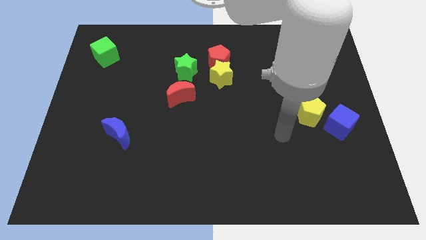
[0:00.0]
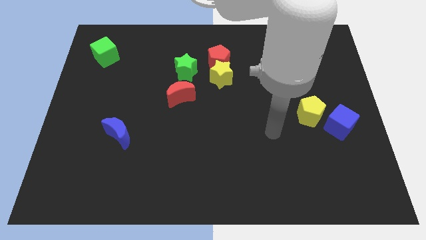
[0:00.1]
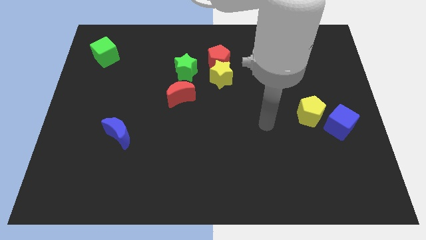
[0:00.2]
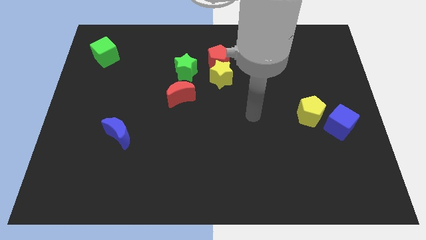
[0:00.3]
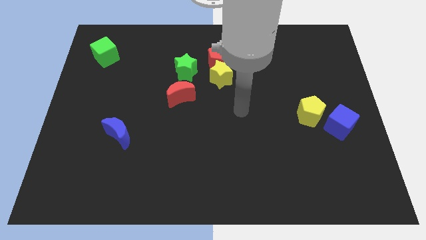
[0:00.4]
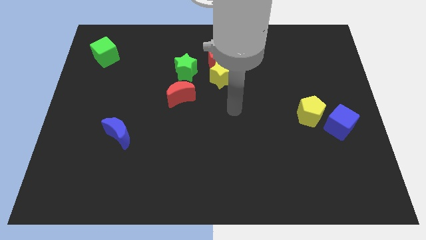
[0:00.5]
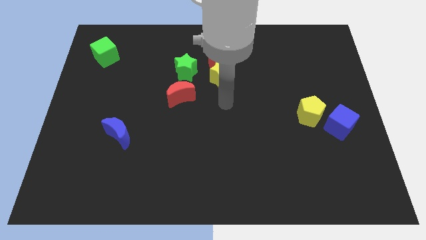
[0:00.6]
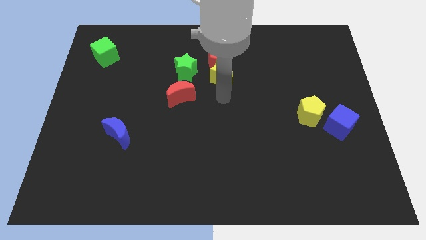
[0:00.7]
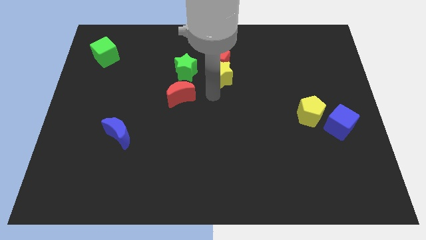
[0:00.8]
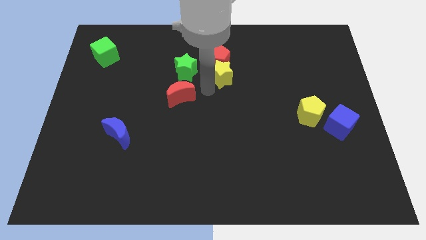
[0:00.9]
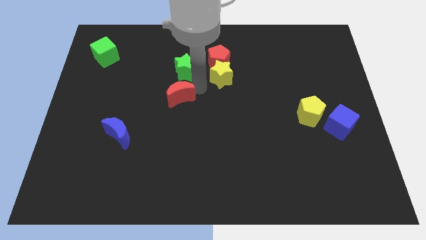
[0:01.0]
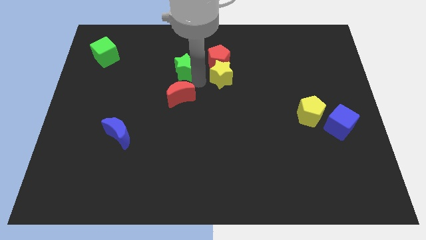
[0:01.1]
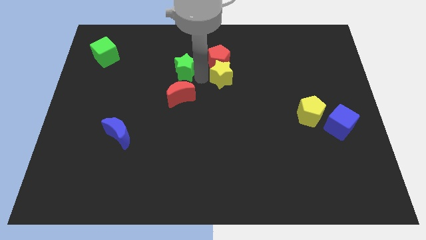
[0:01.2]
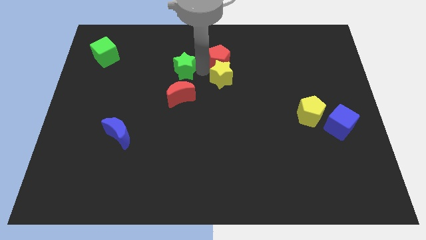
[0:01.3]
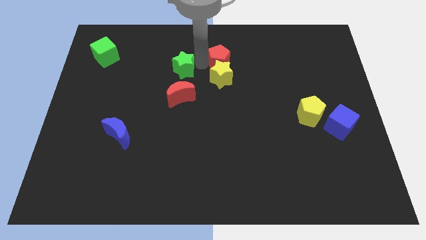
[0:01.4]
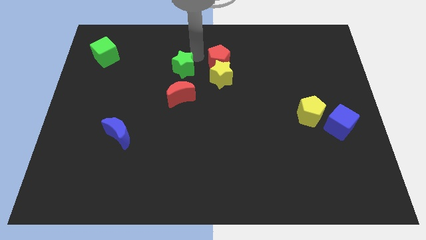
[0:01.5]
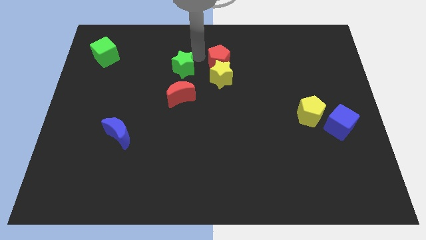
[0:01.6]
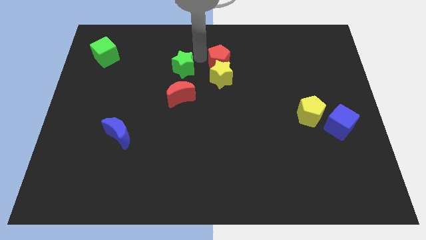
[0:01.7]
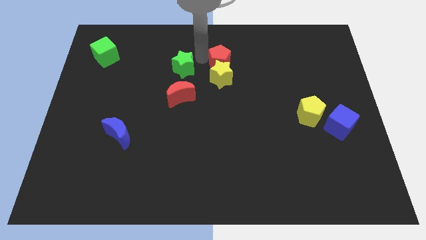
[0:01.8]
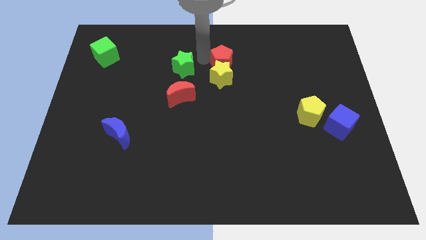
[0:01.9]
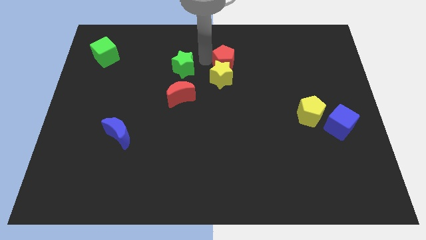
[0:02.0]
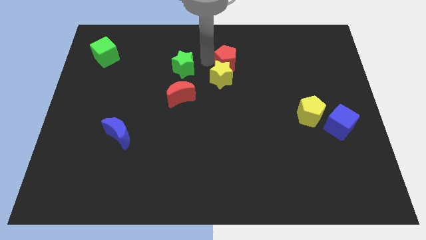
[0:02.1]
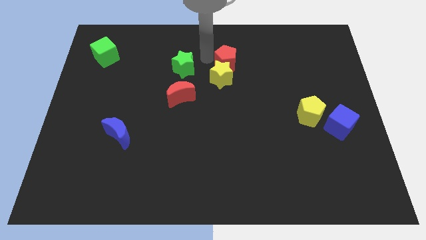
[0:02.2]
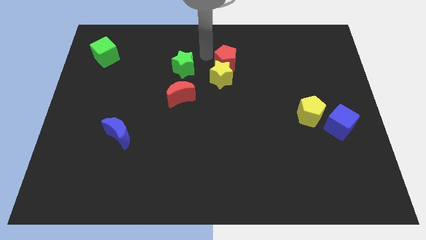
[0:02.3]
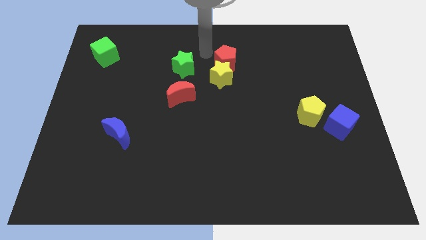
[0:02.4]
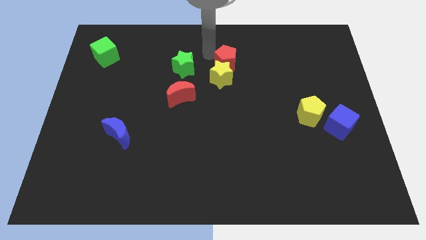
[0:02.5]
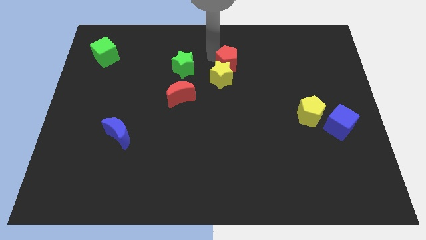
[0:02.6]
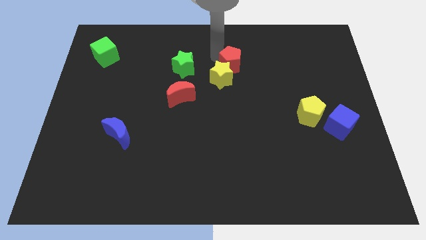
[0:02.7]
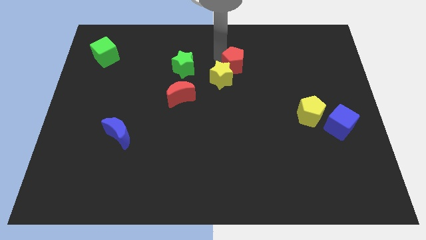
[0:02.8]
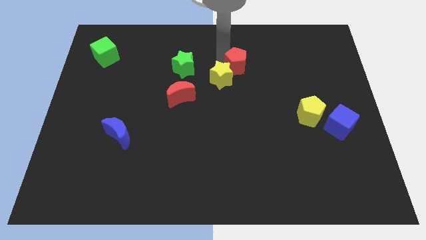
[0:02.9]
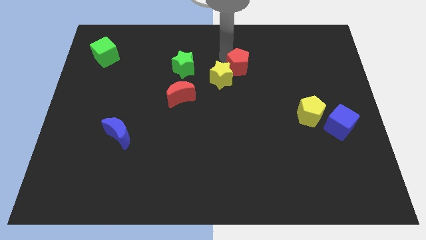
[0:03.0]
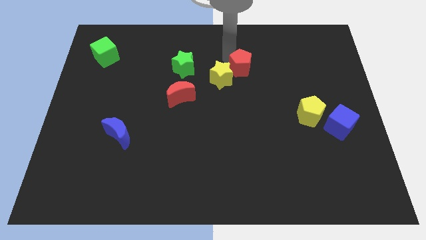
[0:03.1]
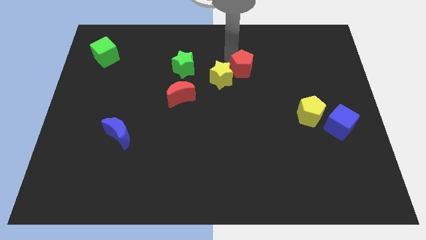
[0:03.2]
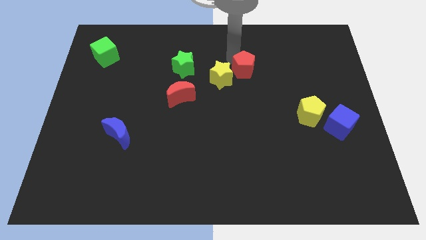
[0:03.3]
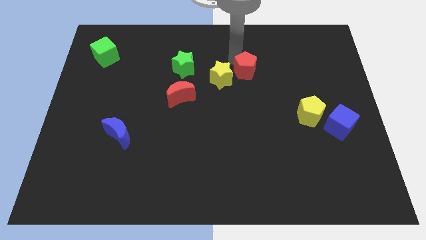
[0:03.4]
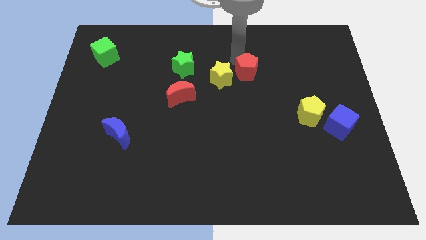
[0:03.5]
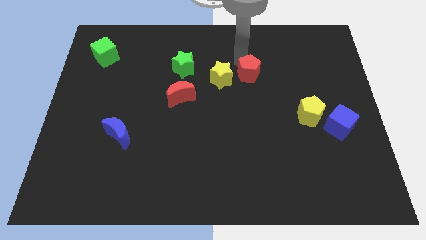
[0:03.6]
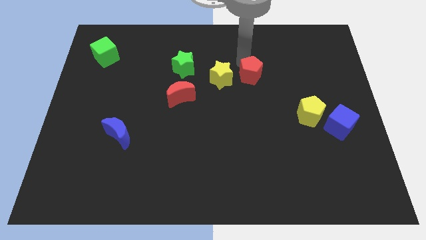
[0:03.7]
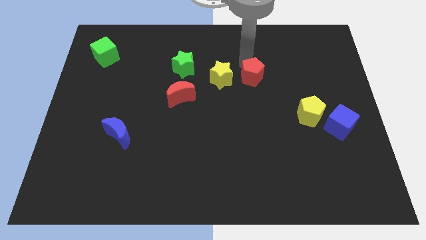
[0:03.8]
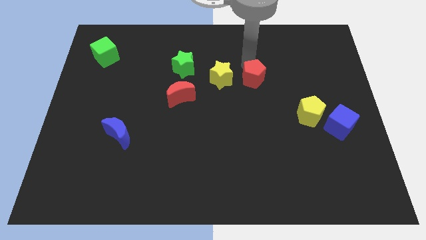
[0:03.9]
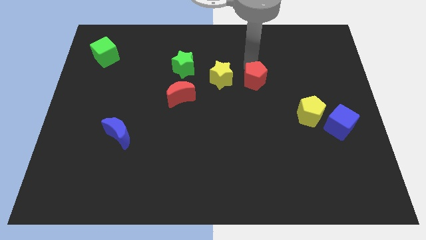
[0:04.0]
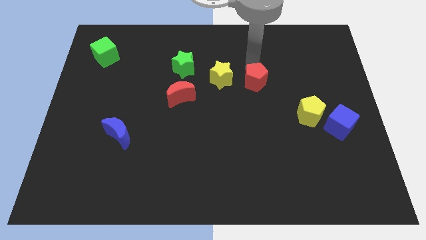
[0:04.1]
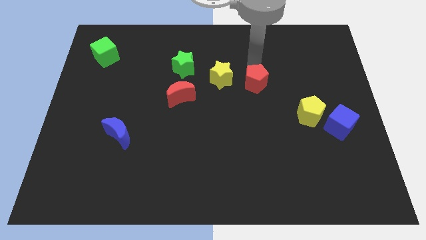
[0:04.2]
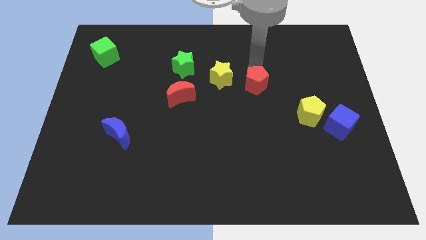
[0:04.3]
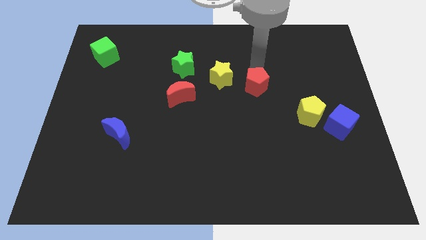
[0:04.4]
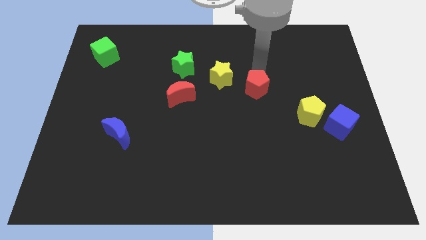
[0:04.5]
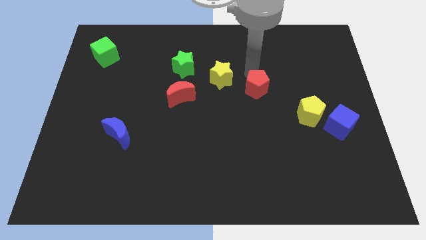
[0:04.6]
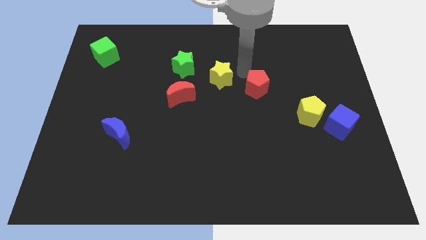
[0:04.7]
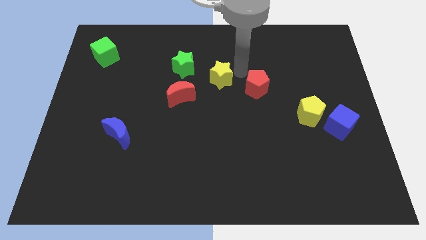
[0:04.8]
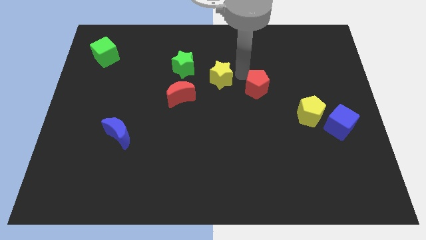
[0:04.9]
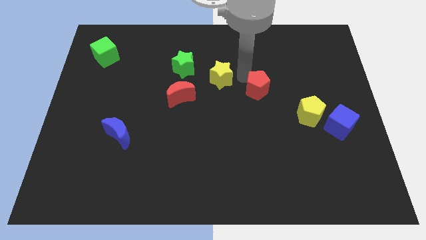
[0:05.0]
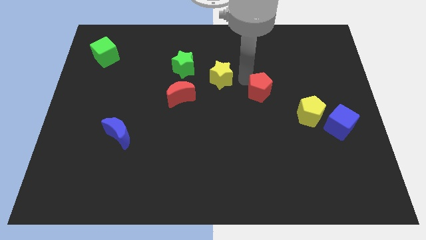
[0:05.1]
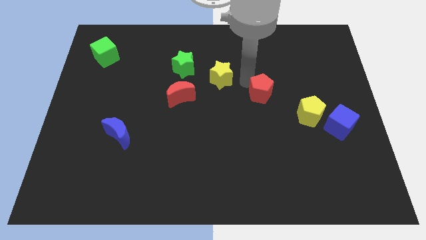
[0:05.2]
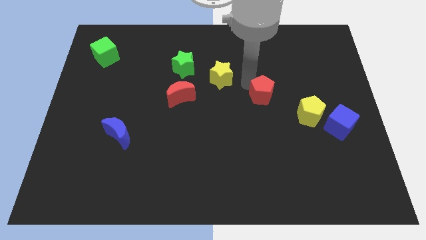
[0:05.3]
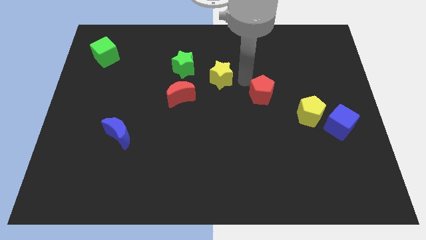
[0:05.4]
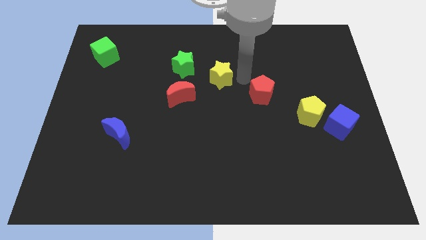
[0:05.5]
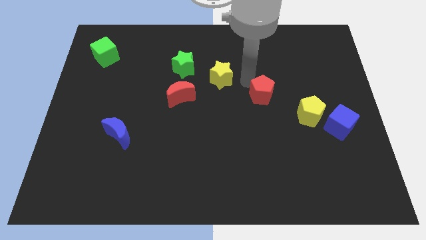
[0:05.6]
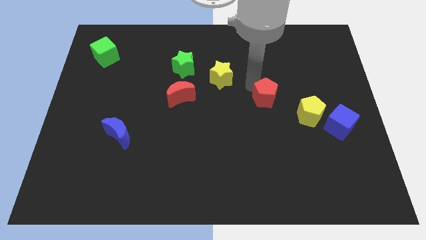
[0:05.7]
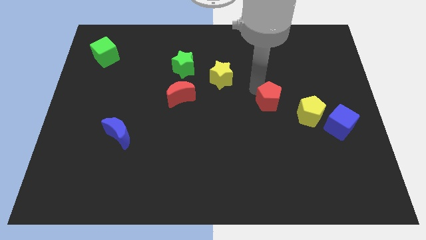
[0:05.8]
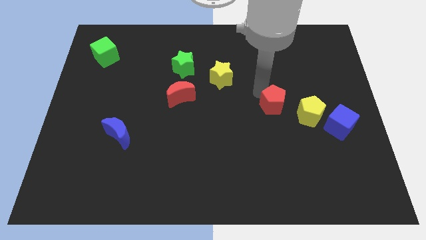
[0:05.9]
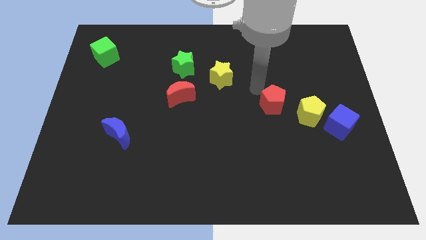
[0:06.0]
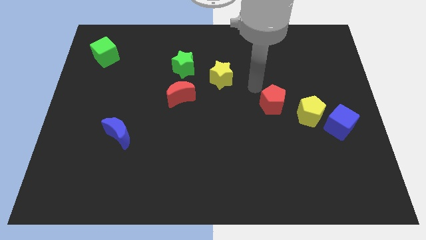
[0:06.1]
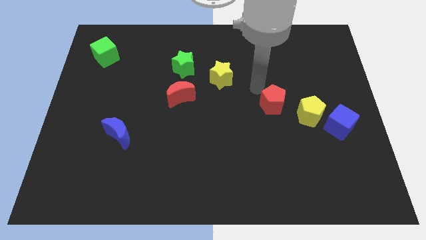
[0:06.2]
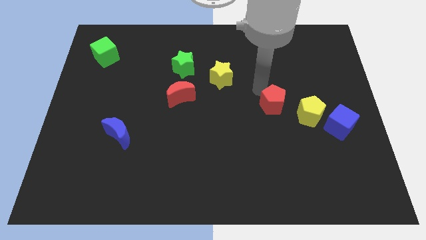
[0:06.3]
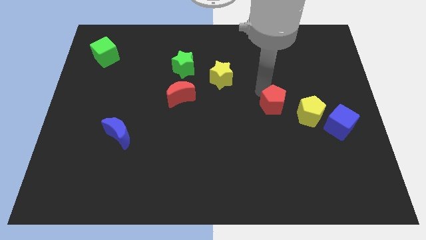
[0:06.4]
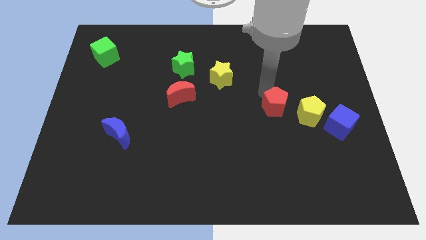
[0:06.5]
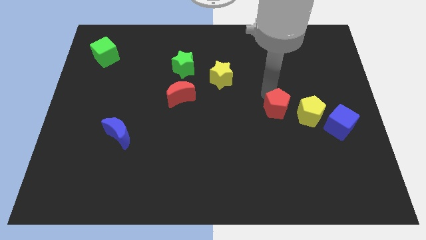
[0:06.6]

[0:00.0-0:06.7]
slide the red pentagon down and right diagonally

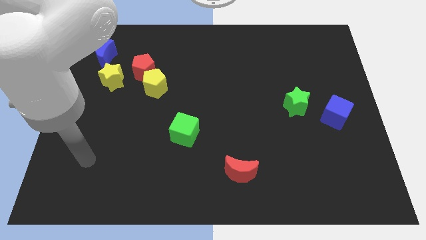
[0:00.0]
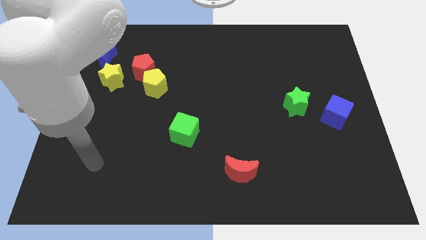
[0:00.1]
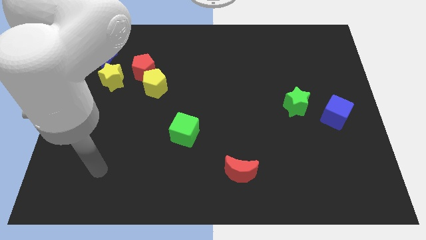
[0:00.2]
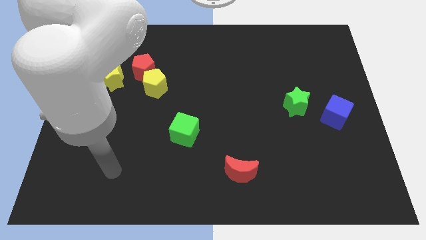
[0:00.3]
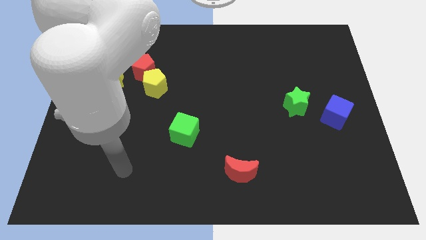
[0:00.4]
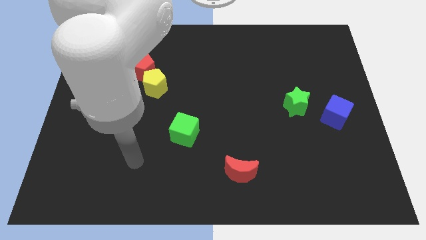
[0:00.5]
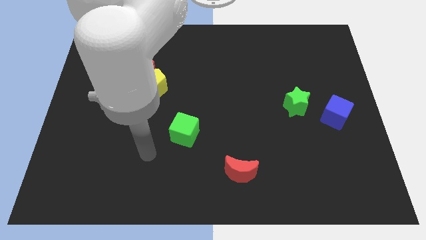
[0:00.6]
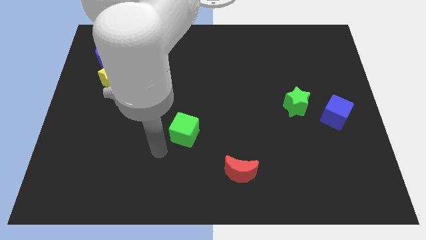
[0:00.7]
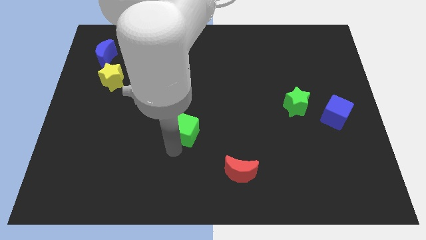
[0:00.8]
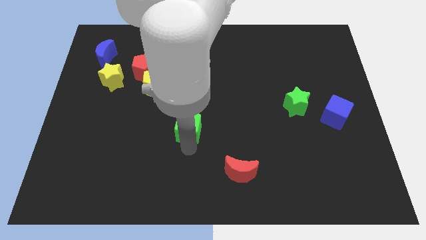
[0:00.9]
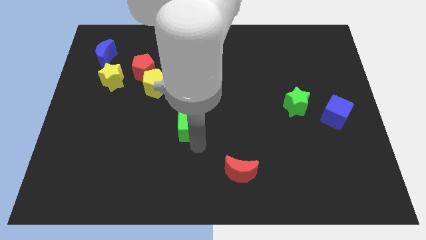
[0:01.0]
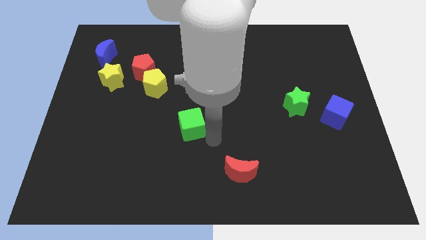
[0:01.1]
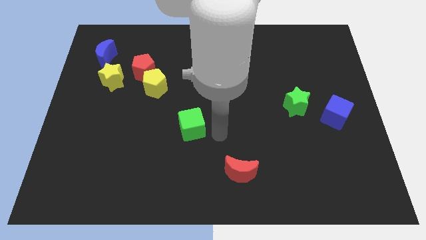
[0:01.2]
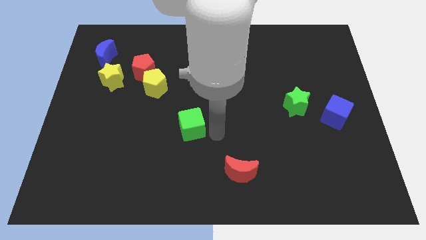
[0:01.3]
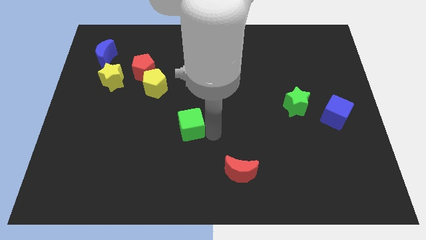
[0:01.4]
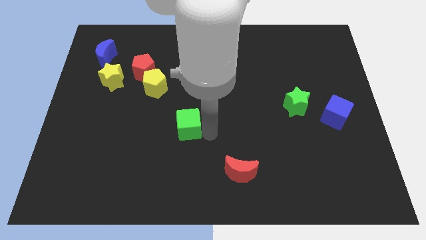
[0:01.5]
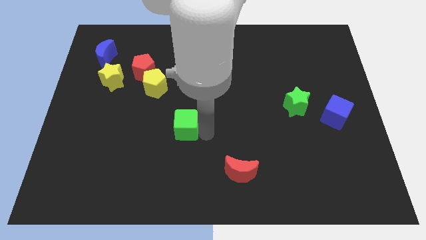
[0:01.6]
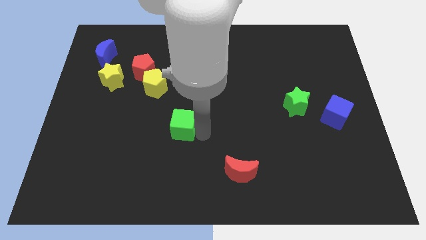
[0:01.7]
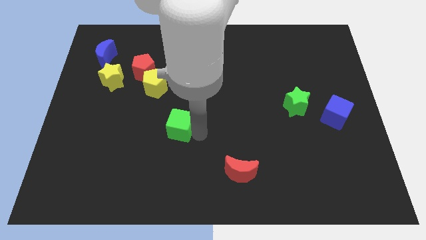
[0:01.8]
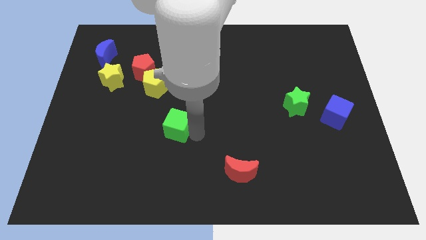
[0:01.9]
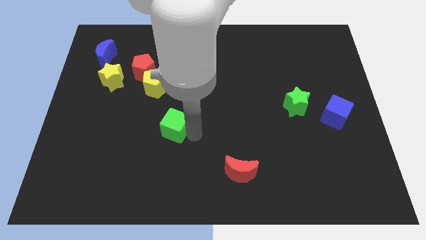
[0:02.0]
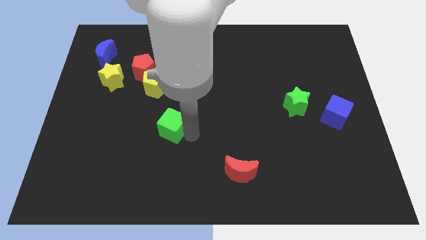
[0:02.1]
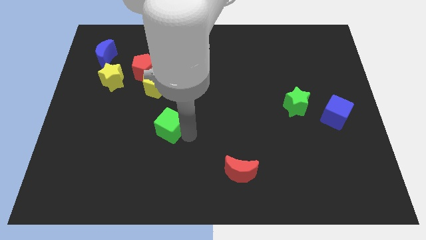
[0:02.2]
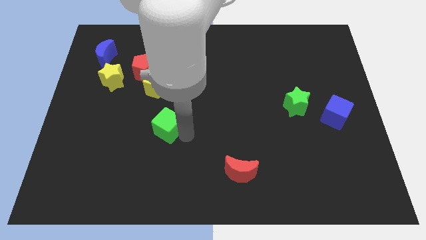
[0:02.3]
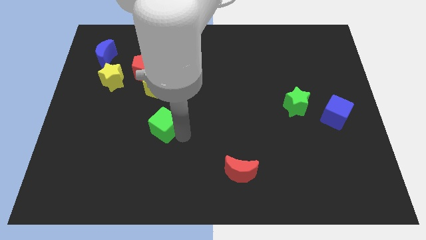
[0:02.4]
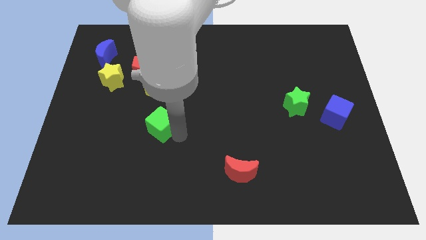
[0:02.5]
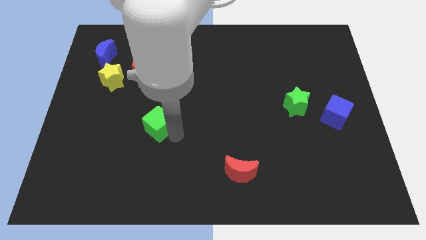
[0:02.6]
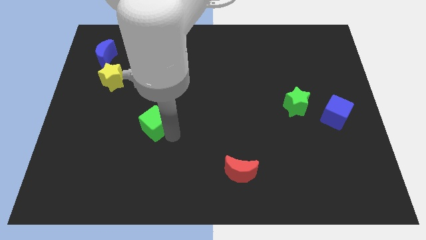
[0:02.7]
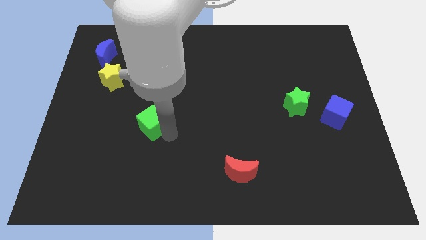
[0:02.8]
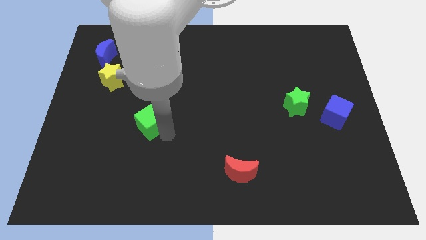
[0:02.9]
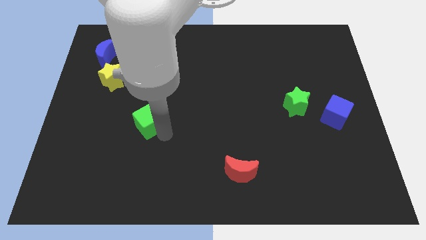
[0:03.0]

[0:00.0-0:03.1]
slide the green cube slightly up and then to the left
